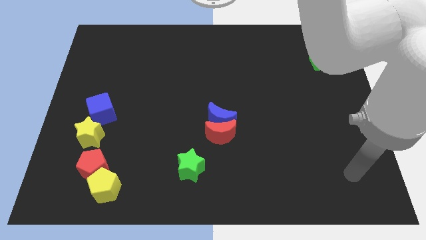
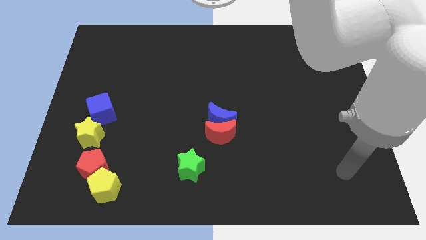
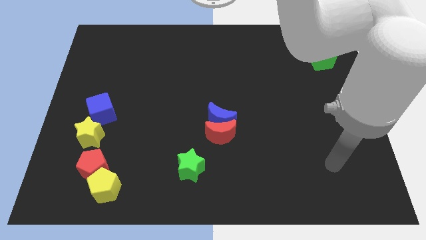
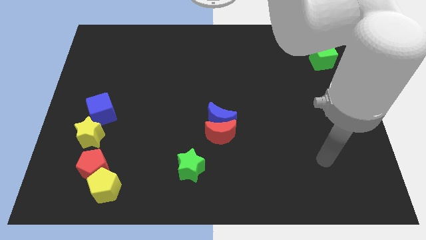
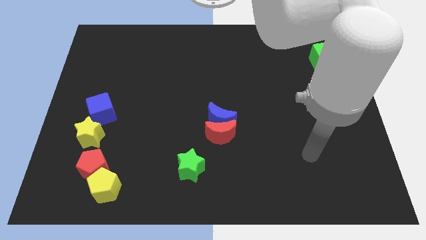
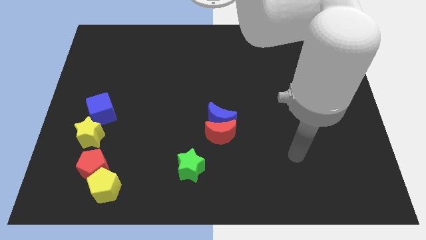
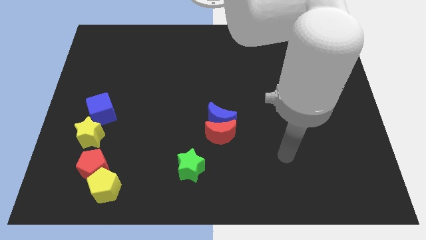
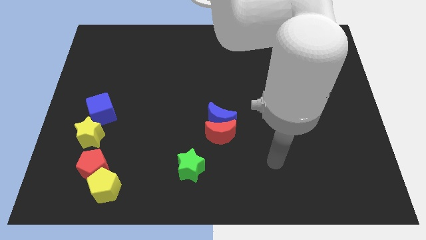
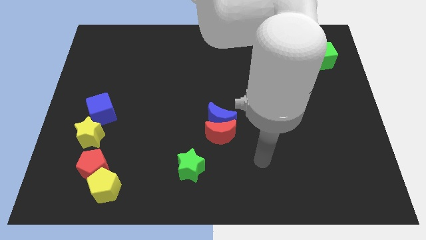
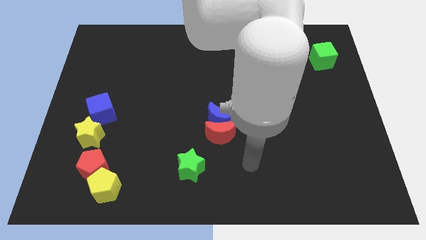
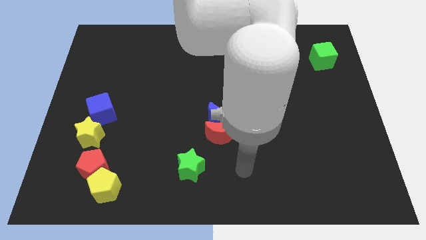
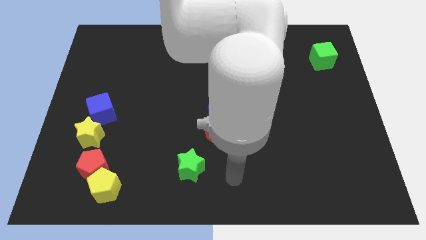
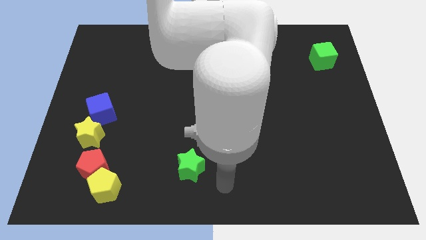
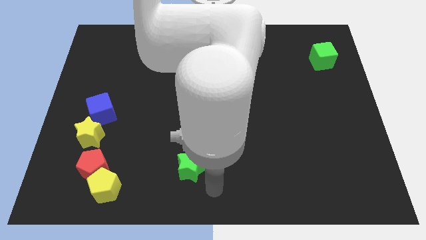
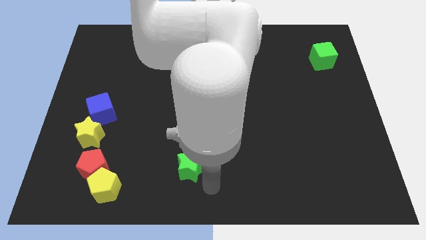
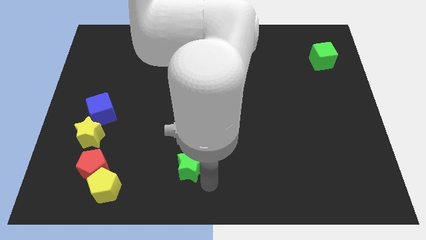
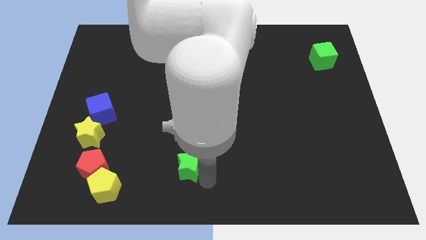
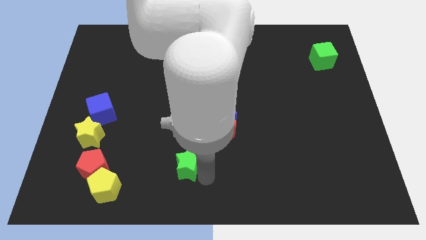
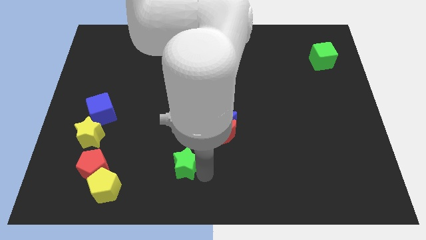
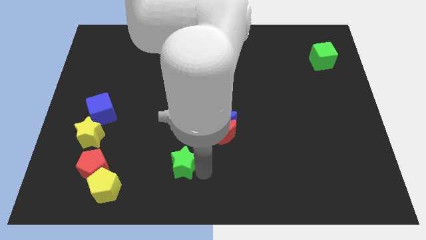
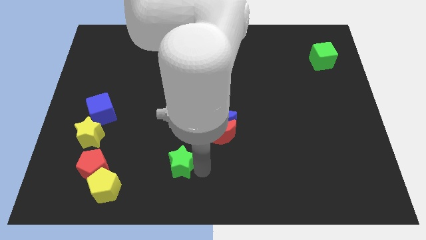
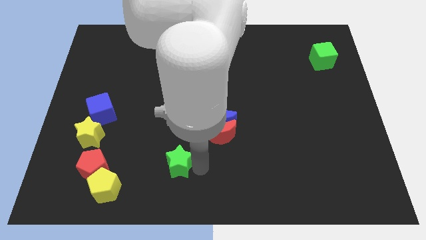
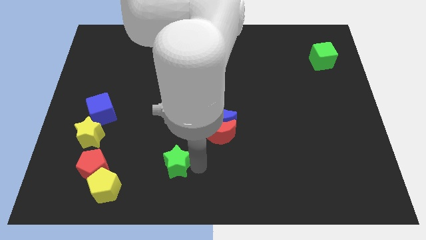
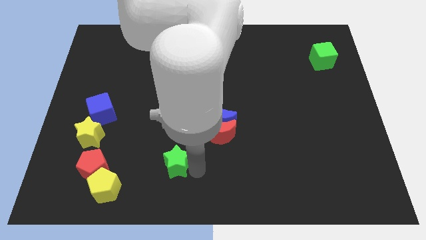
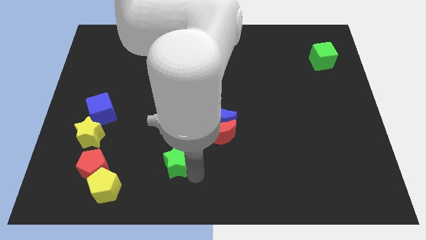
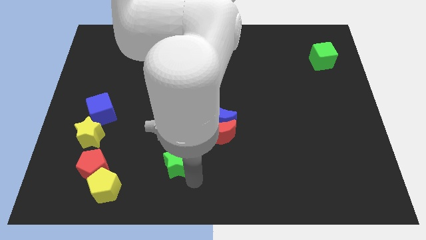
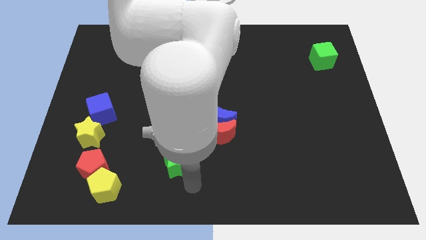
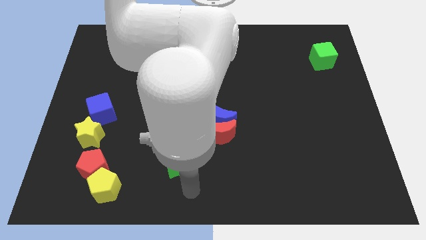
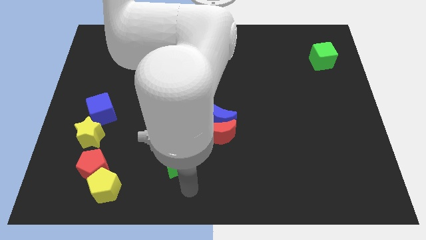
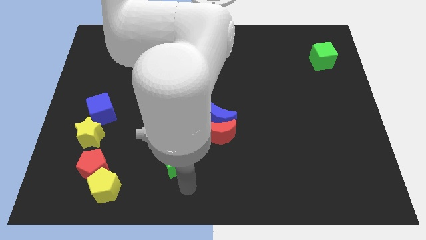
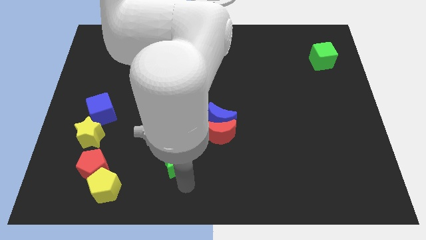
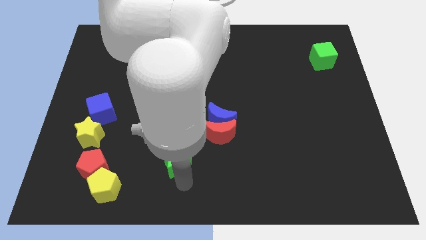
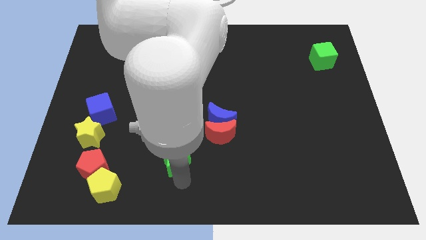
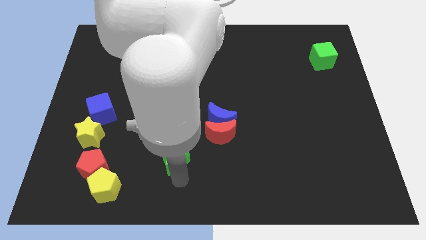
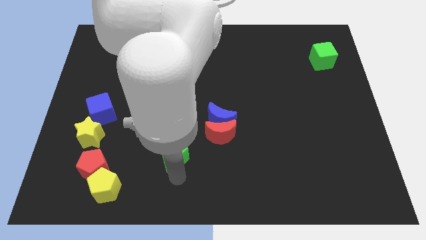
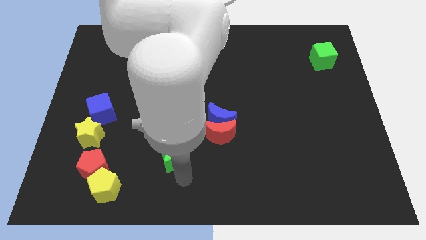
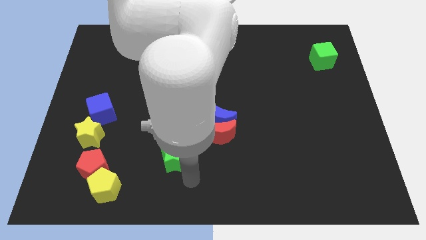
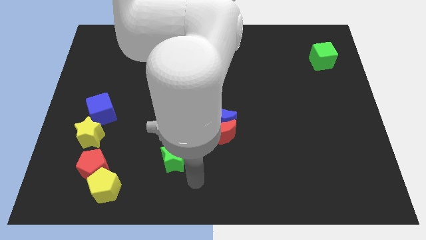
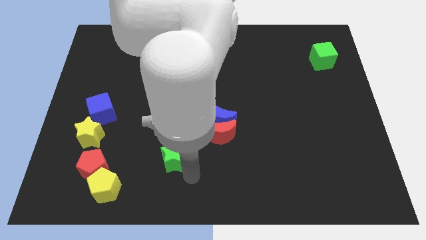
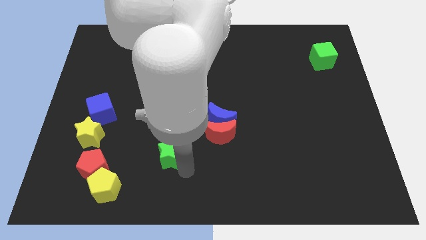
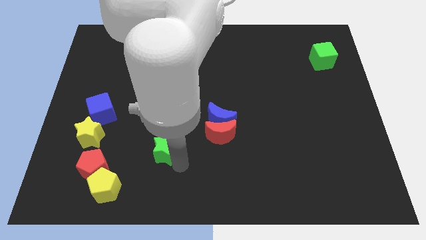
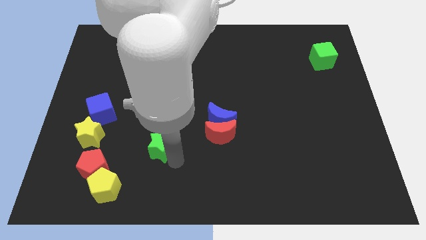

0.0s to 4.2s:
move the green star up and left slightly

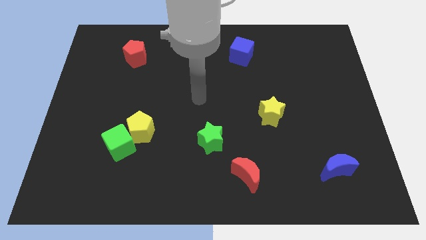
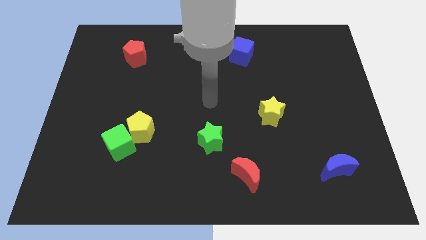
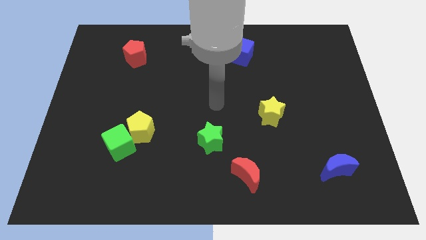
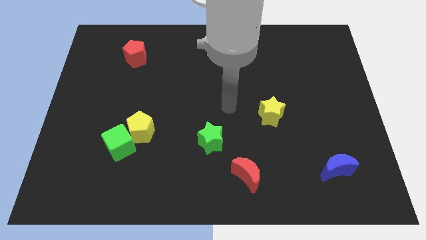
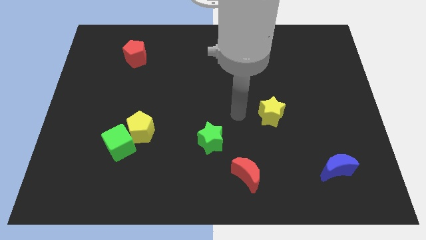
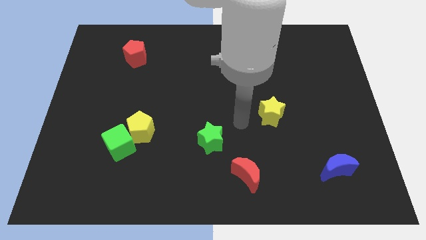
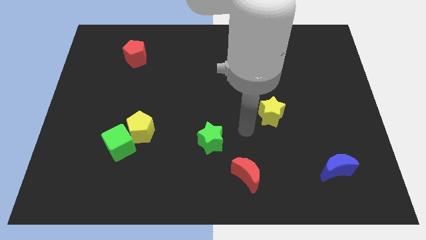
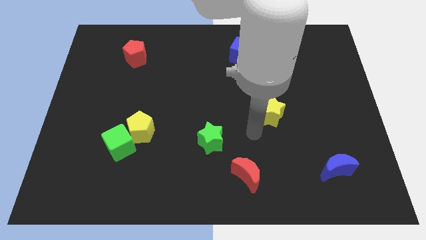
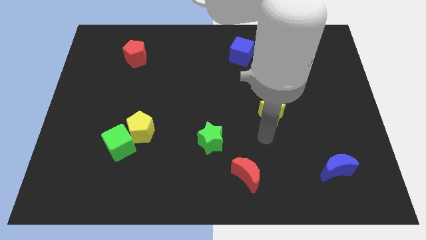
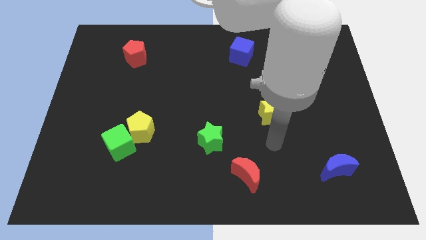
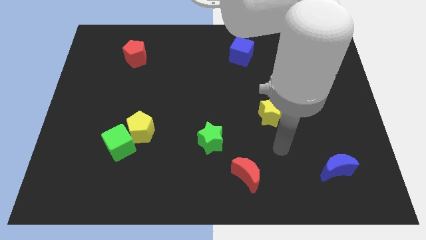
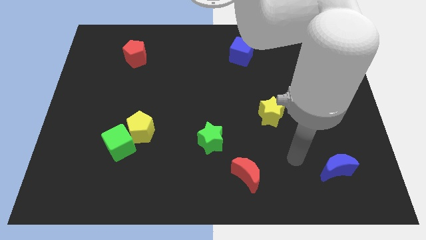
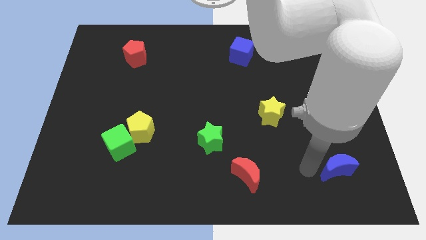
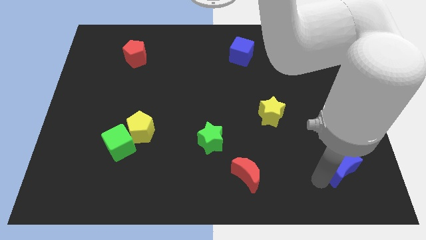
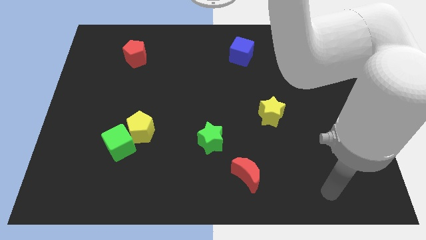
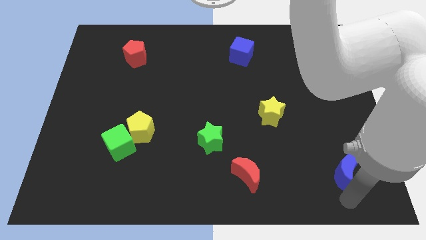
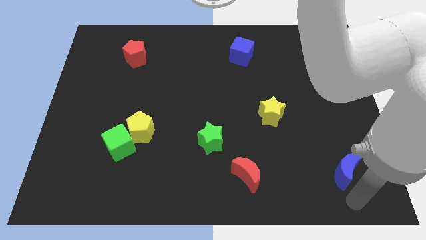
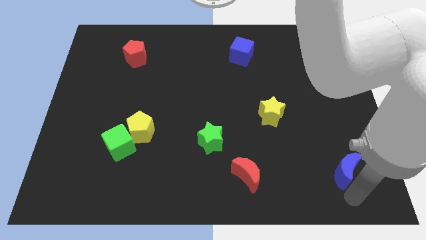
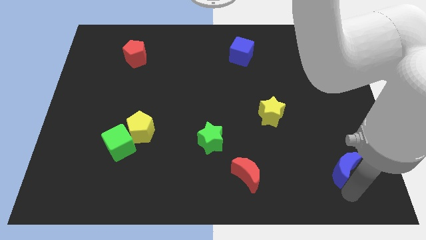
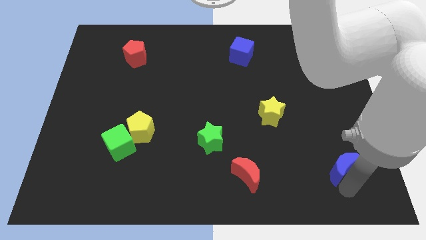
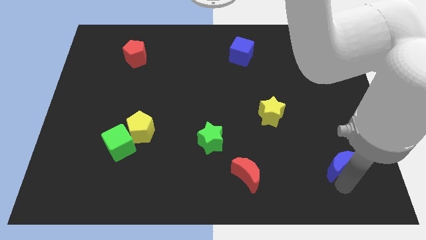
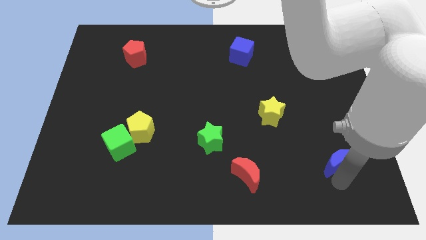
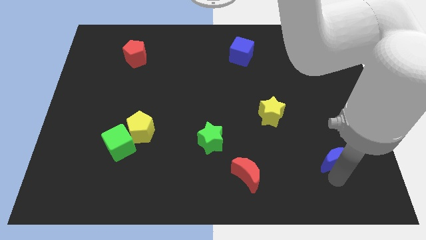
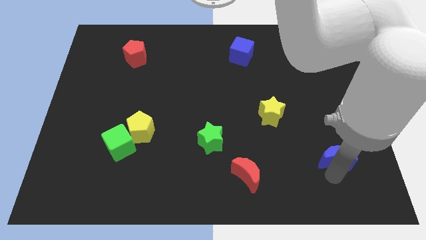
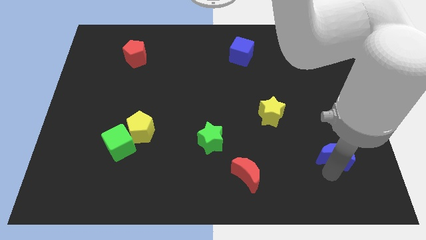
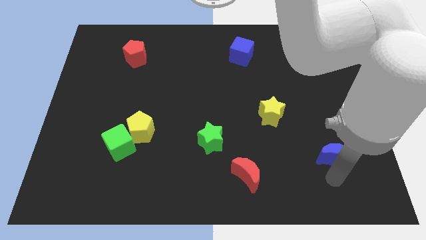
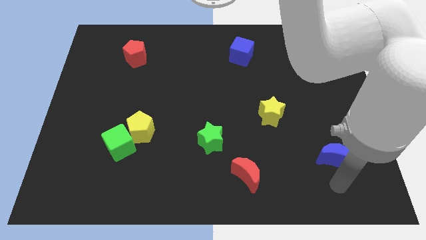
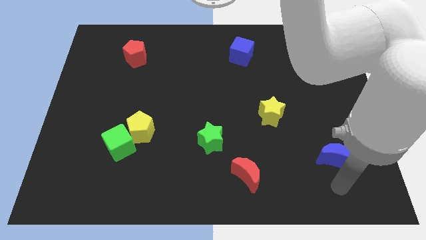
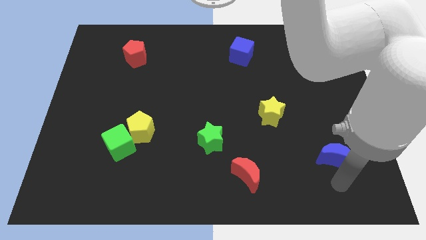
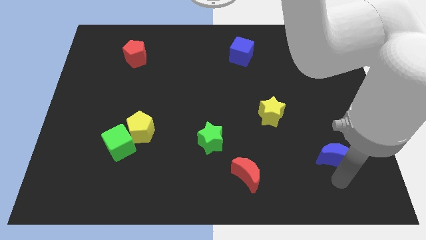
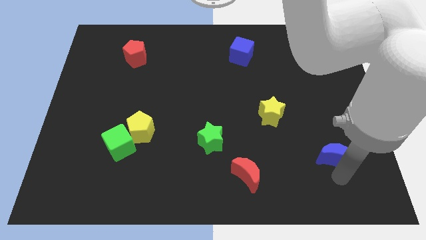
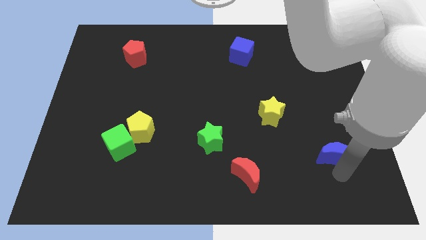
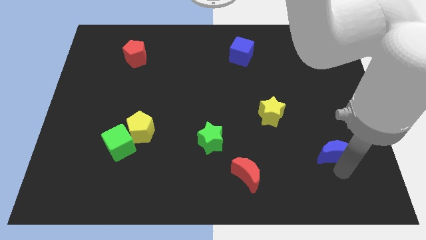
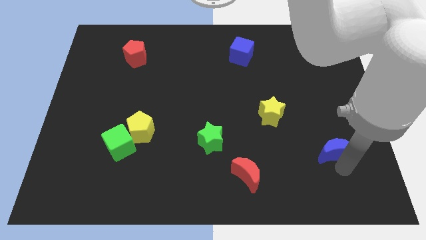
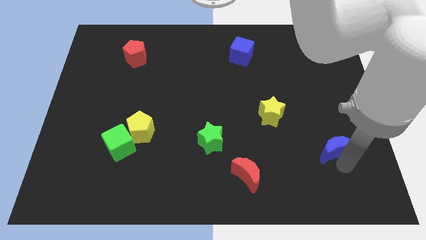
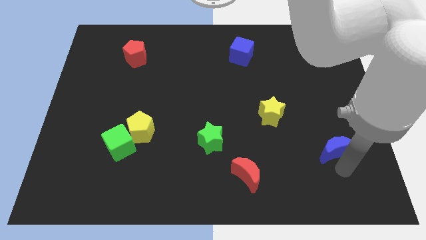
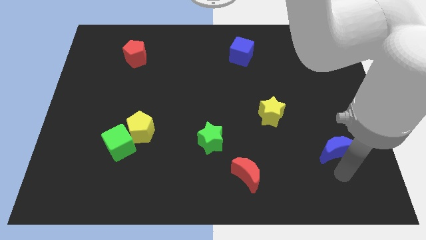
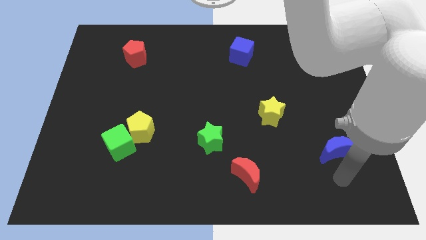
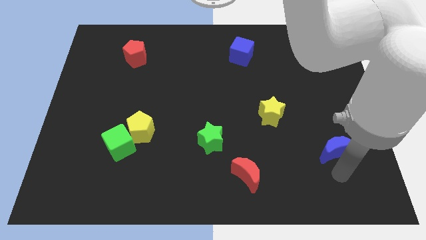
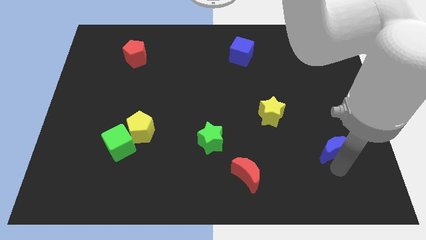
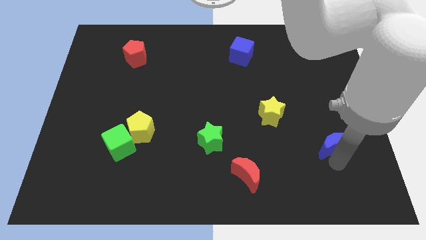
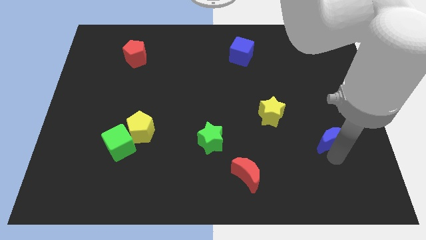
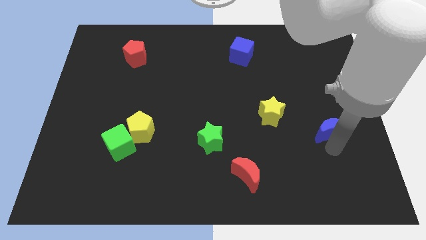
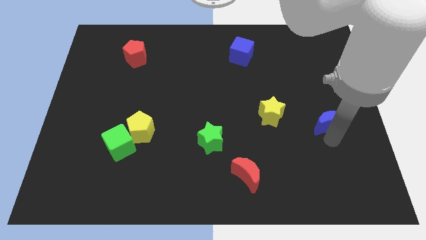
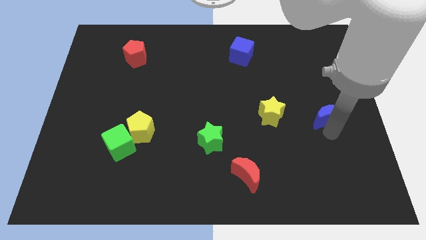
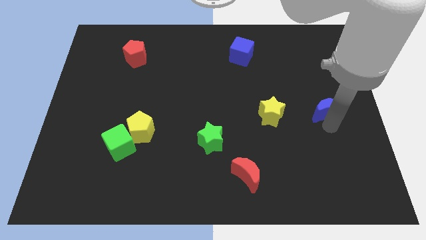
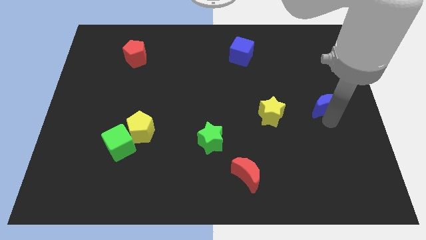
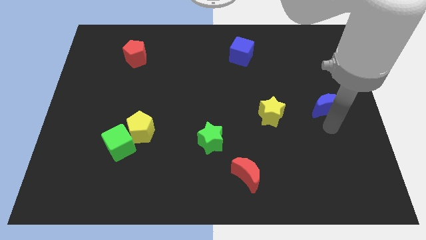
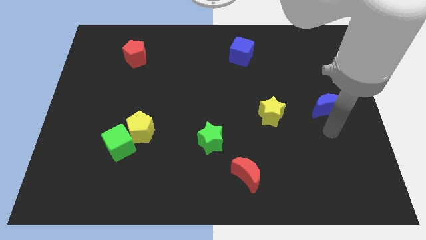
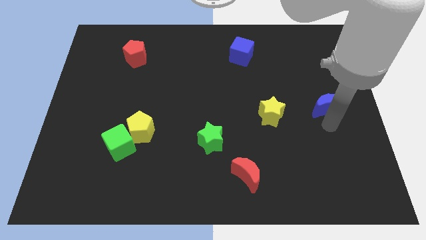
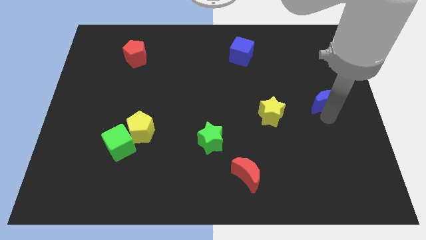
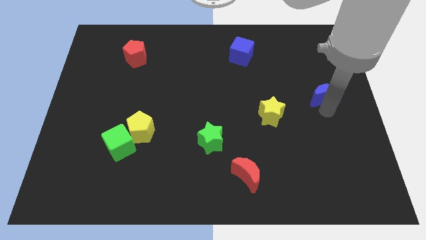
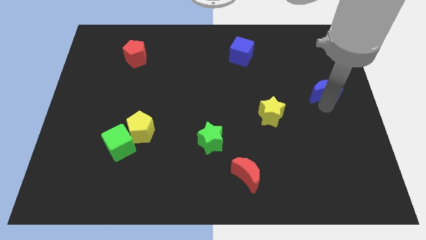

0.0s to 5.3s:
push the blue moon up
